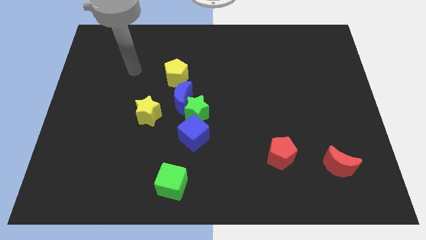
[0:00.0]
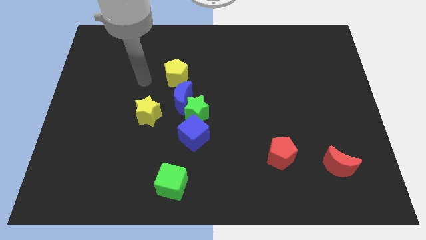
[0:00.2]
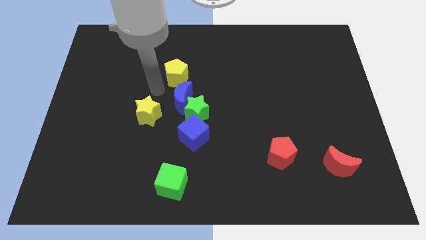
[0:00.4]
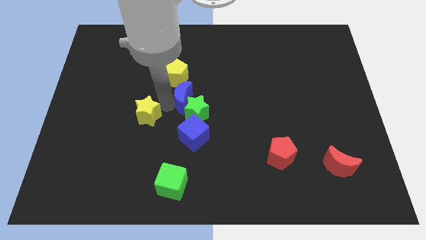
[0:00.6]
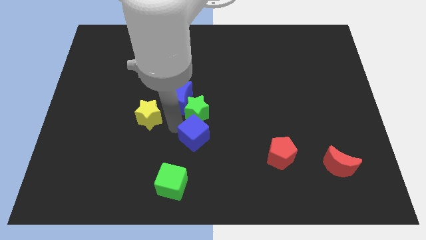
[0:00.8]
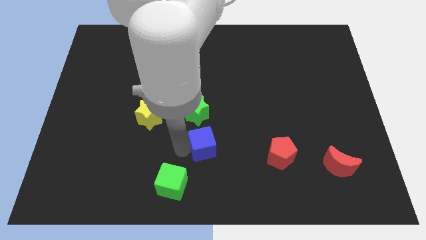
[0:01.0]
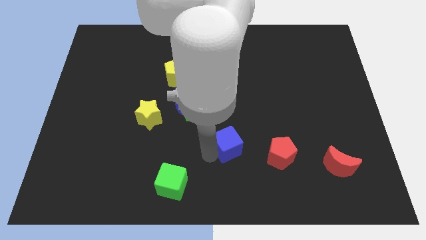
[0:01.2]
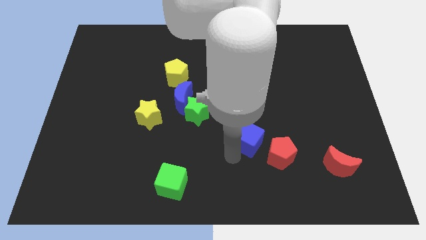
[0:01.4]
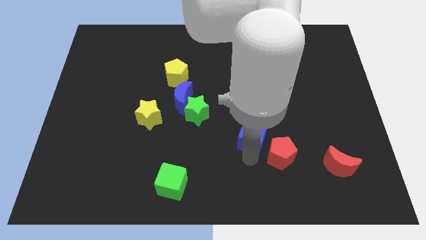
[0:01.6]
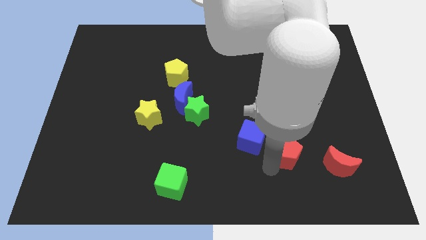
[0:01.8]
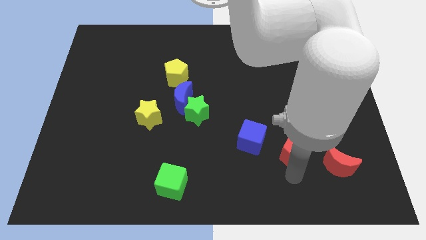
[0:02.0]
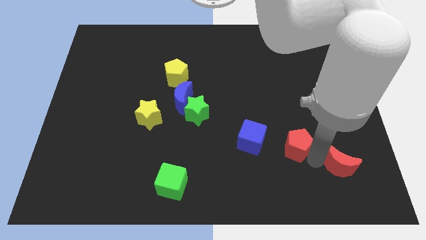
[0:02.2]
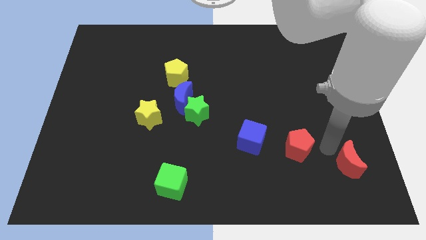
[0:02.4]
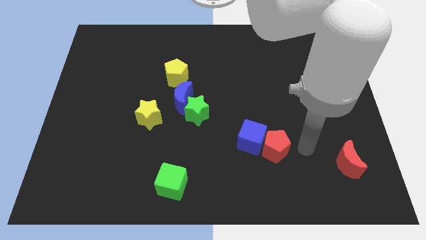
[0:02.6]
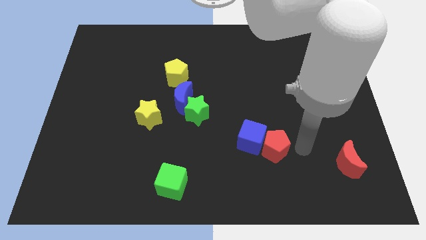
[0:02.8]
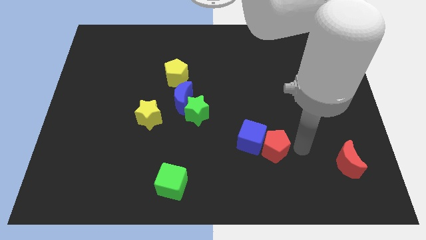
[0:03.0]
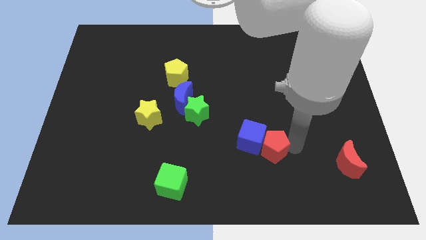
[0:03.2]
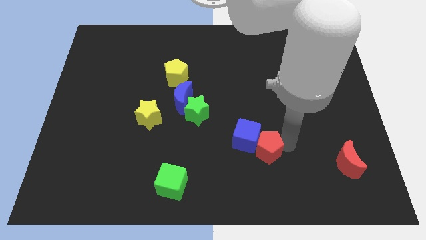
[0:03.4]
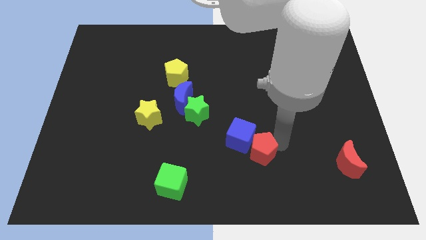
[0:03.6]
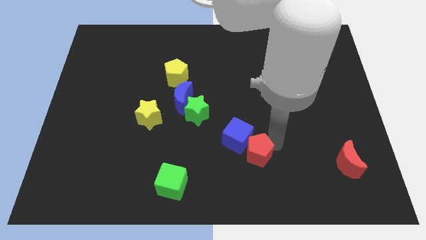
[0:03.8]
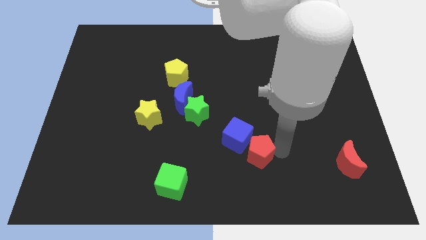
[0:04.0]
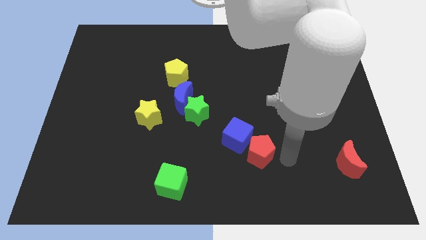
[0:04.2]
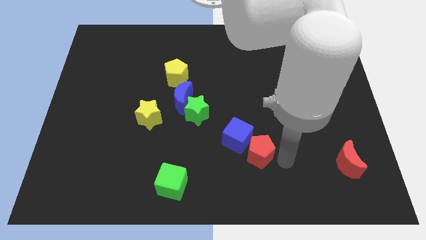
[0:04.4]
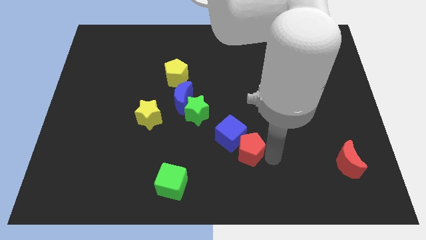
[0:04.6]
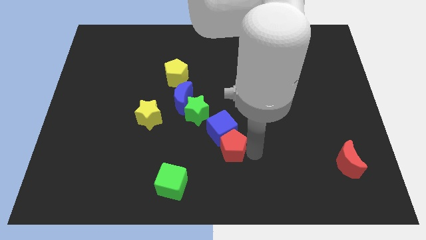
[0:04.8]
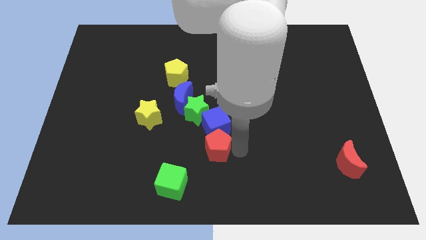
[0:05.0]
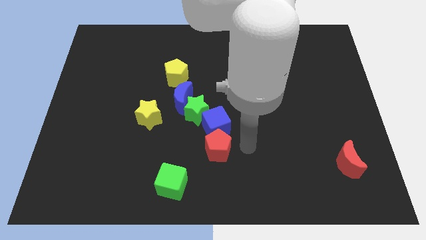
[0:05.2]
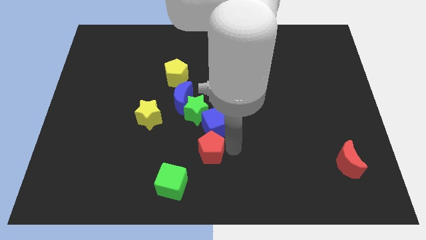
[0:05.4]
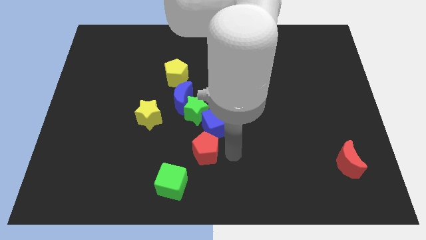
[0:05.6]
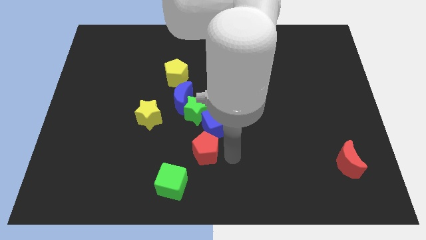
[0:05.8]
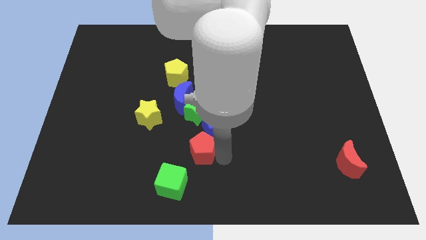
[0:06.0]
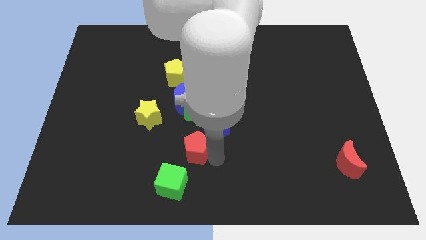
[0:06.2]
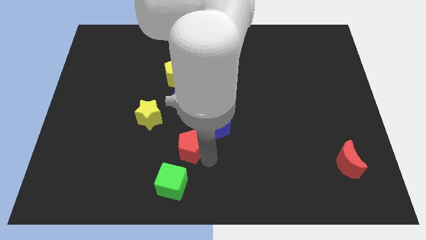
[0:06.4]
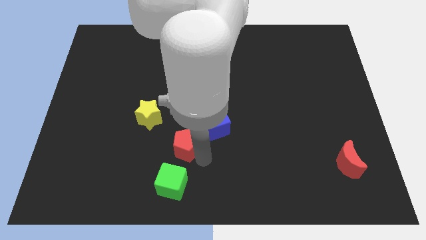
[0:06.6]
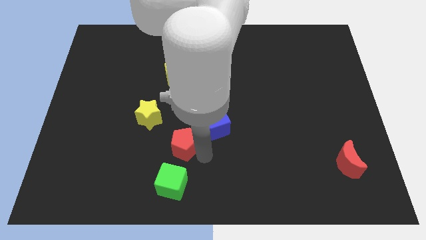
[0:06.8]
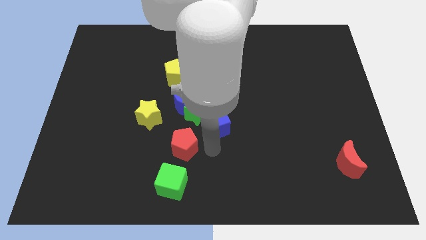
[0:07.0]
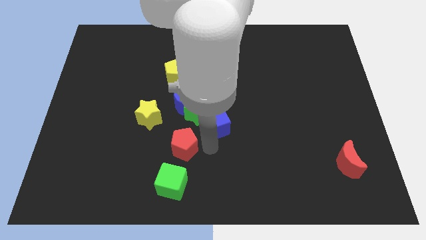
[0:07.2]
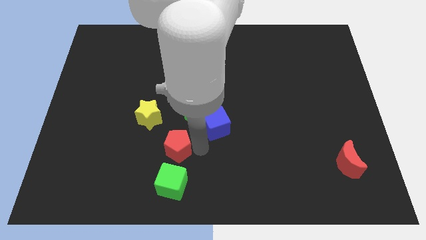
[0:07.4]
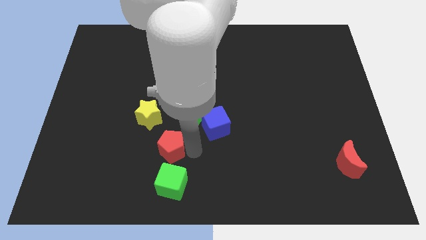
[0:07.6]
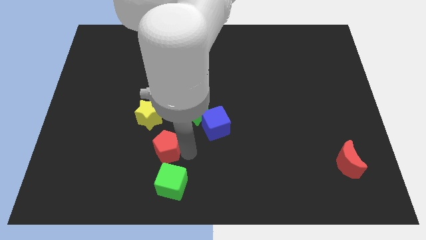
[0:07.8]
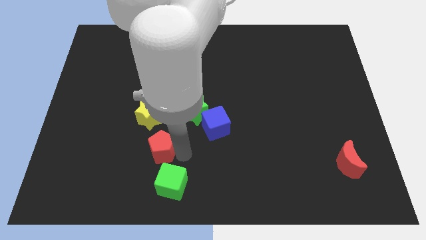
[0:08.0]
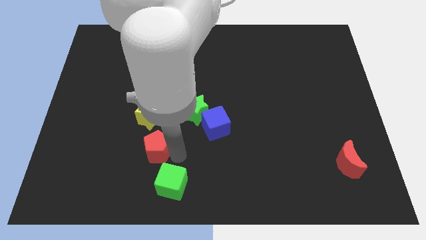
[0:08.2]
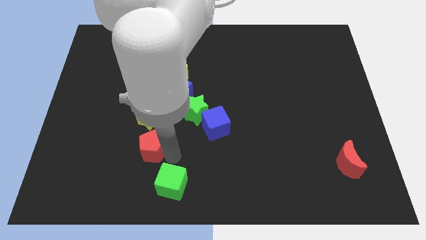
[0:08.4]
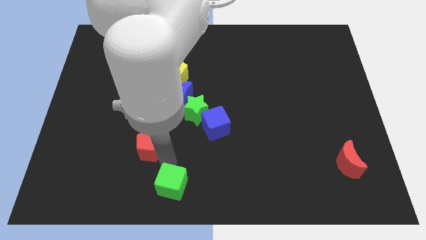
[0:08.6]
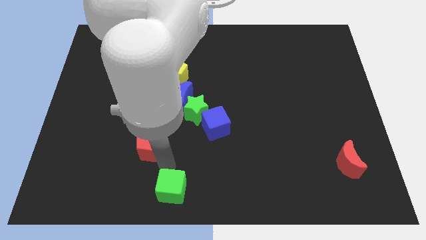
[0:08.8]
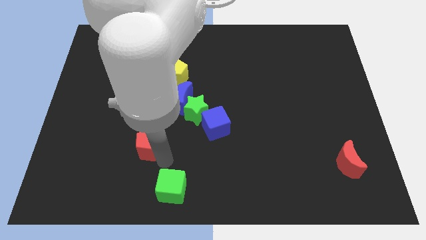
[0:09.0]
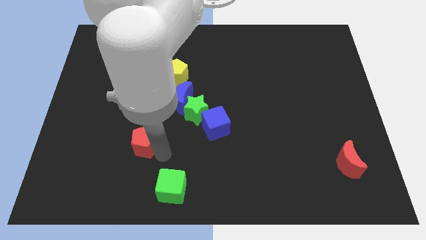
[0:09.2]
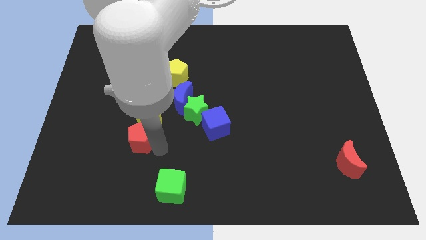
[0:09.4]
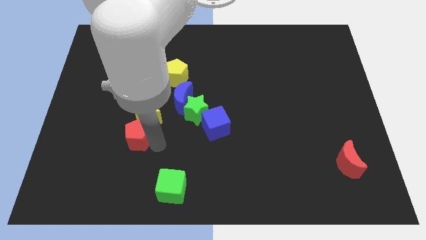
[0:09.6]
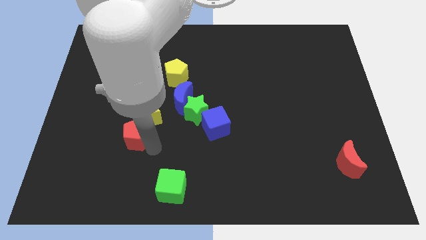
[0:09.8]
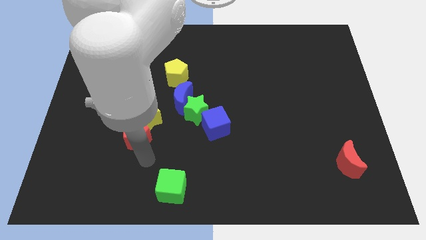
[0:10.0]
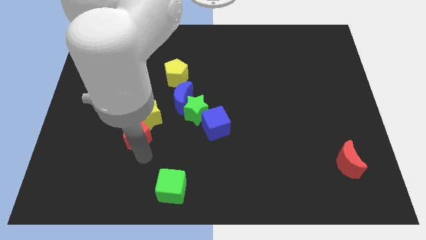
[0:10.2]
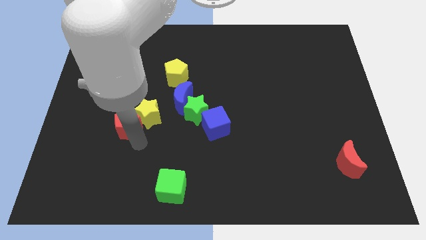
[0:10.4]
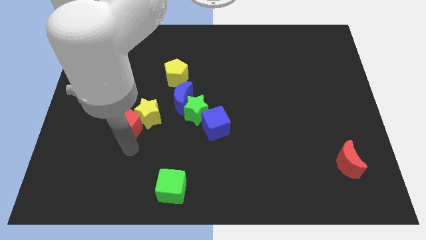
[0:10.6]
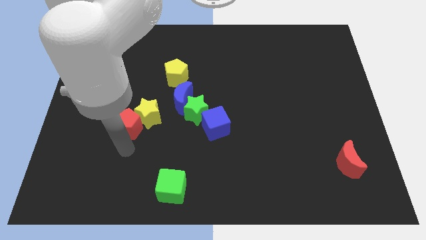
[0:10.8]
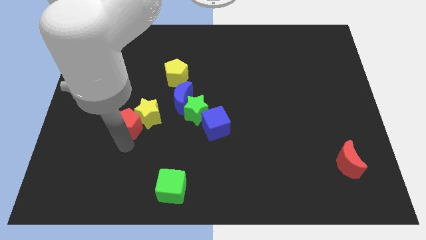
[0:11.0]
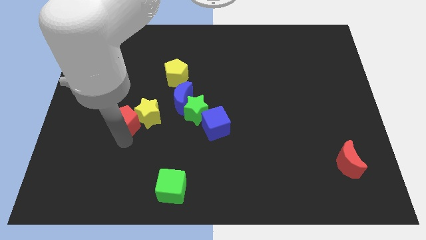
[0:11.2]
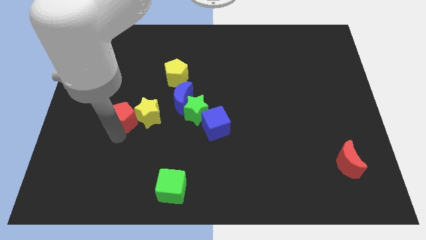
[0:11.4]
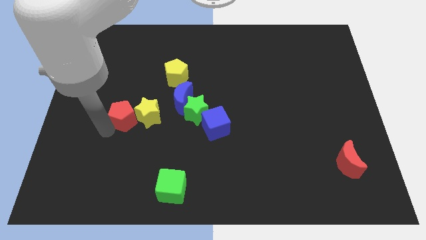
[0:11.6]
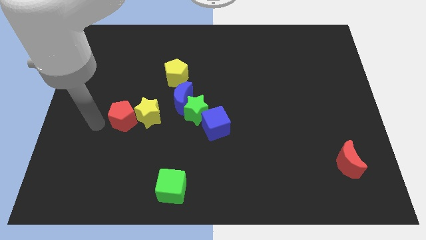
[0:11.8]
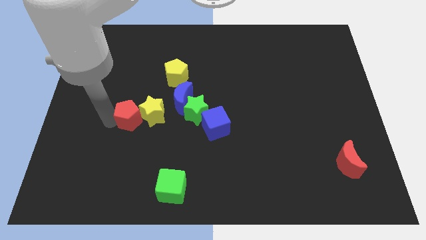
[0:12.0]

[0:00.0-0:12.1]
move the red pentagon to the left side of the green star
